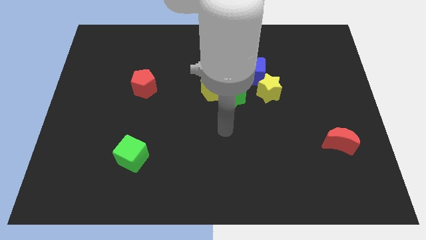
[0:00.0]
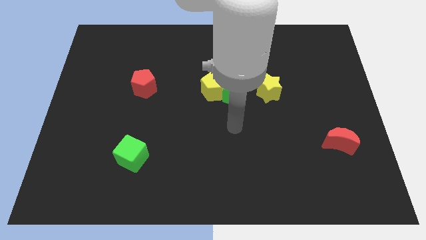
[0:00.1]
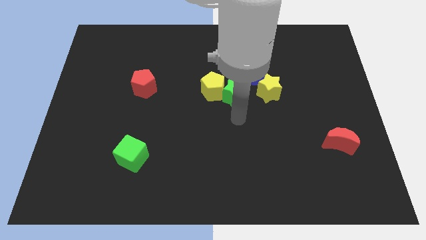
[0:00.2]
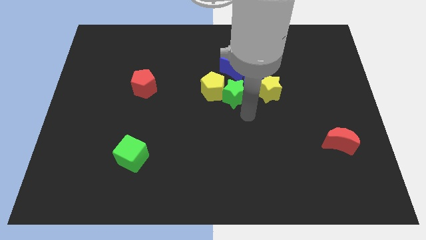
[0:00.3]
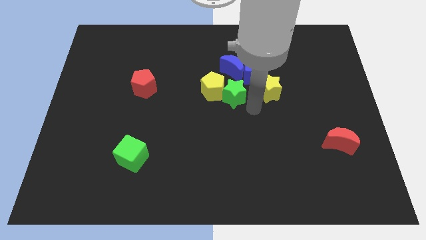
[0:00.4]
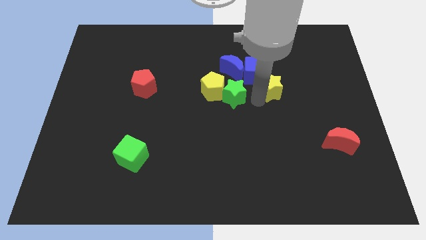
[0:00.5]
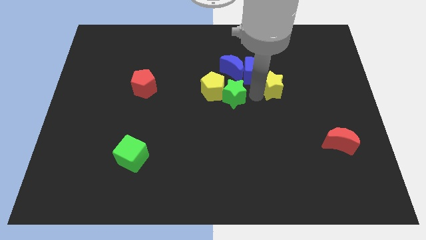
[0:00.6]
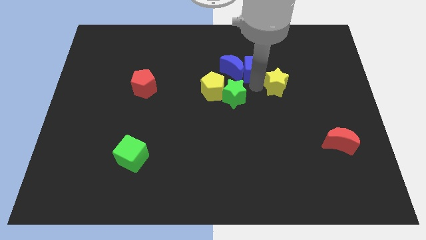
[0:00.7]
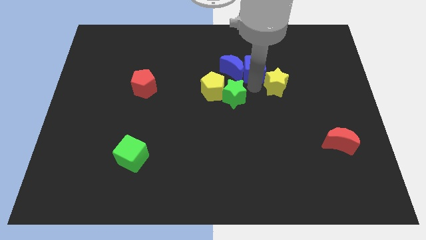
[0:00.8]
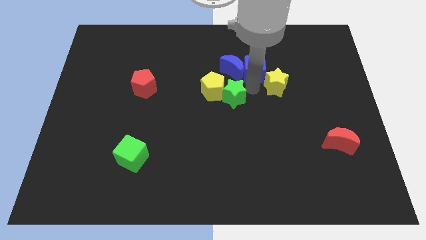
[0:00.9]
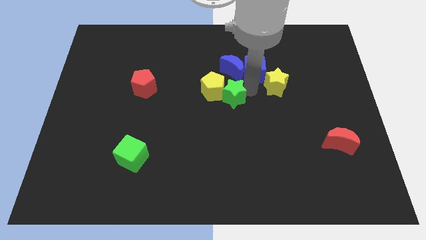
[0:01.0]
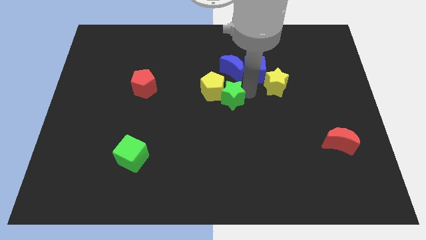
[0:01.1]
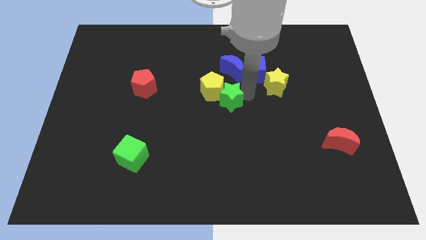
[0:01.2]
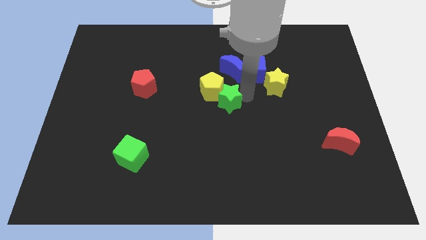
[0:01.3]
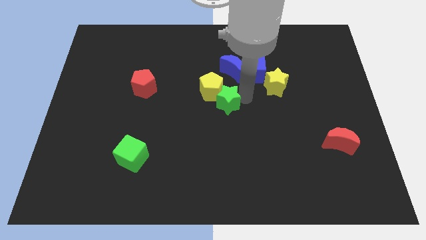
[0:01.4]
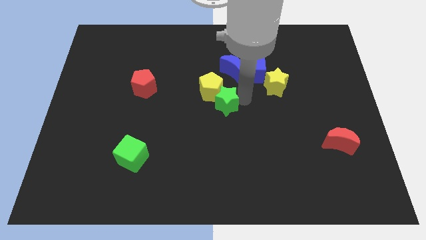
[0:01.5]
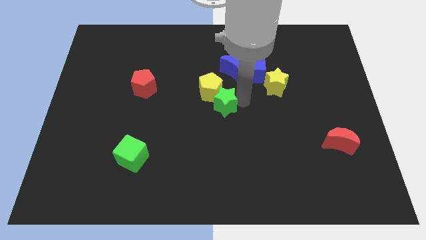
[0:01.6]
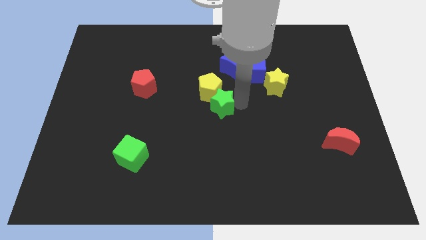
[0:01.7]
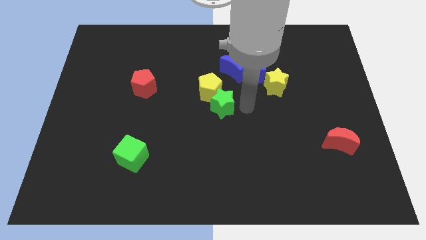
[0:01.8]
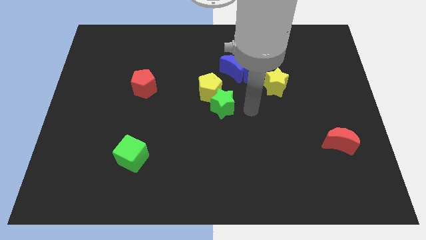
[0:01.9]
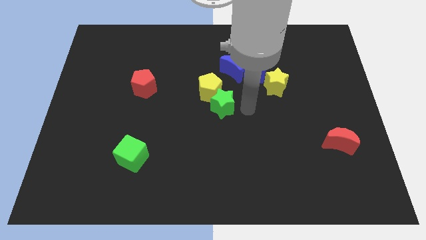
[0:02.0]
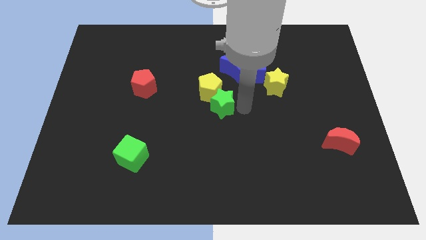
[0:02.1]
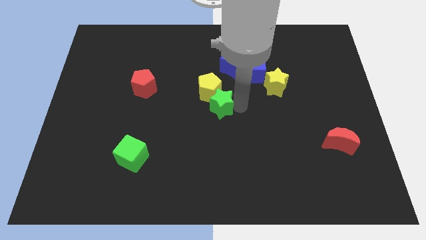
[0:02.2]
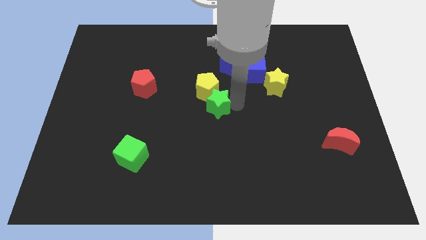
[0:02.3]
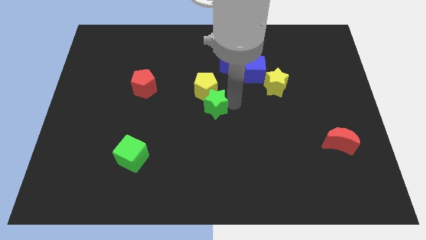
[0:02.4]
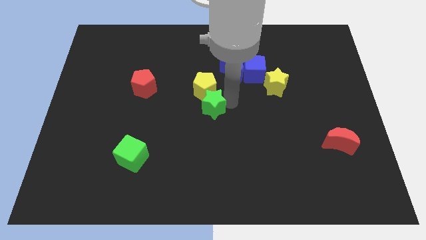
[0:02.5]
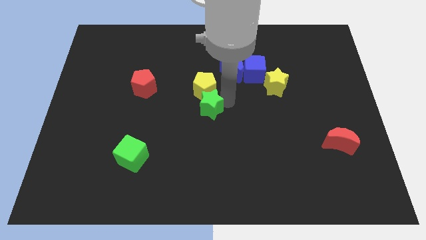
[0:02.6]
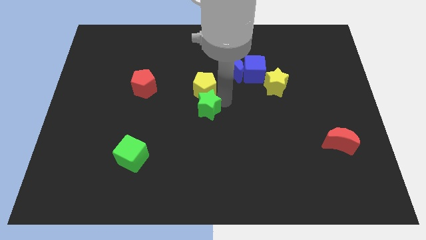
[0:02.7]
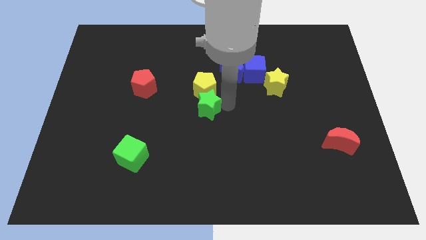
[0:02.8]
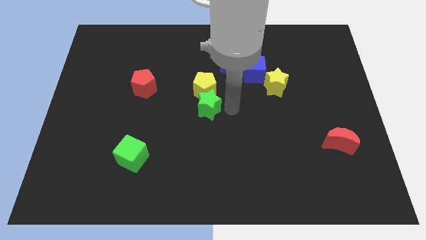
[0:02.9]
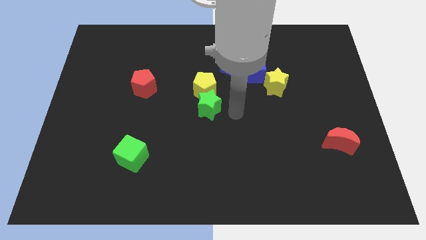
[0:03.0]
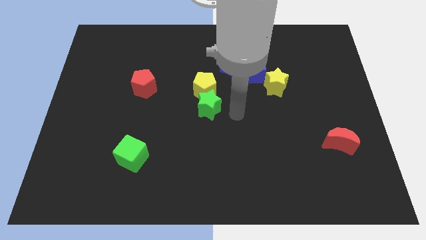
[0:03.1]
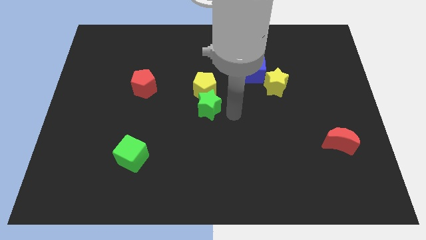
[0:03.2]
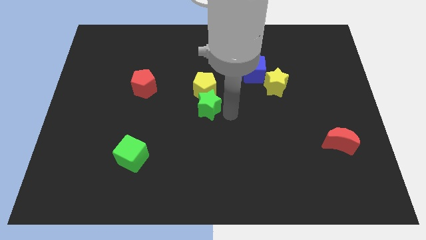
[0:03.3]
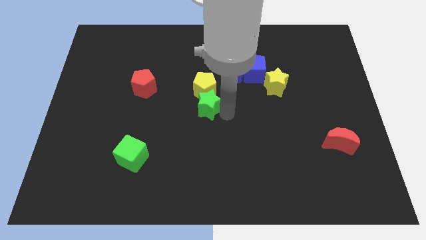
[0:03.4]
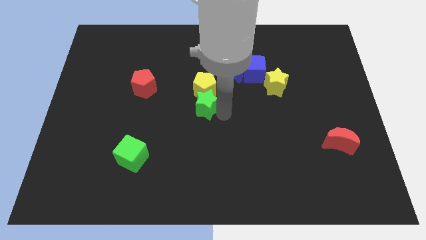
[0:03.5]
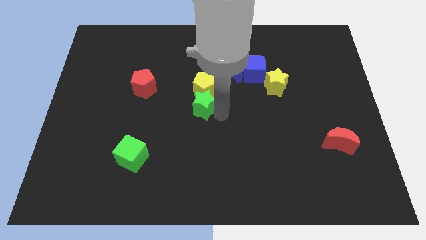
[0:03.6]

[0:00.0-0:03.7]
move the green star somewhat left

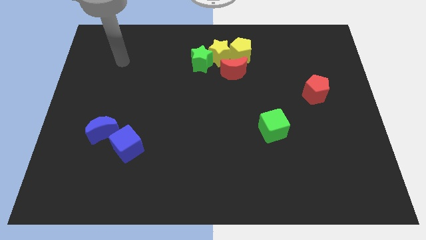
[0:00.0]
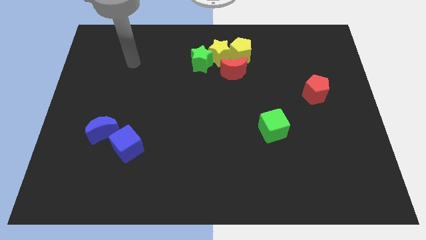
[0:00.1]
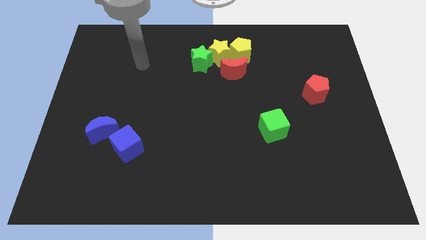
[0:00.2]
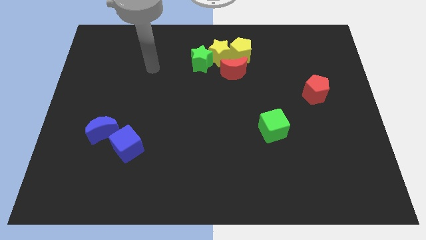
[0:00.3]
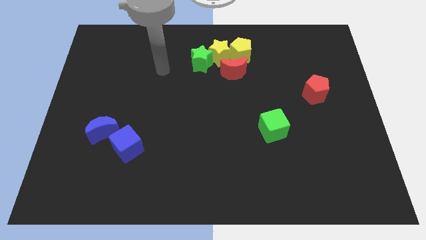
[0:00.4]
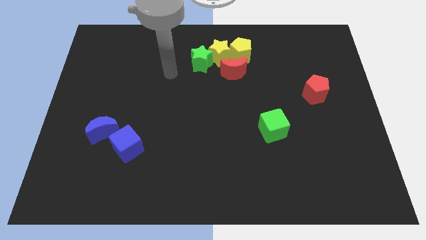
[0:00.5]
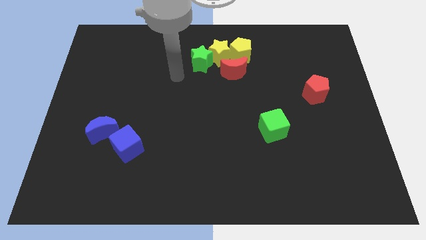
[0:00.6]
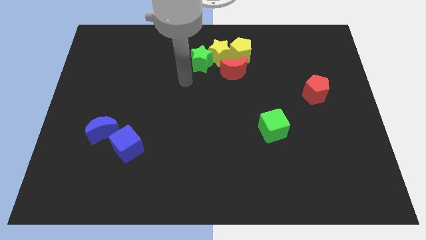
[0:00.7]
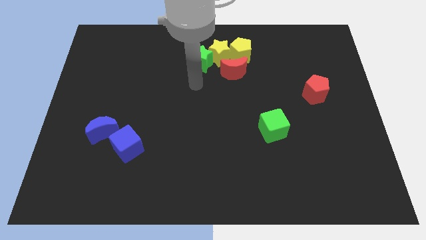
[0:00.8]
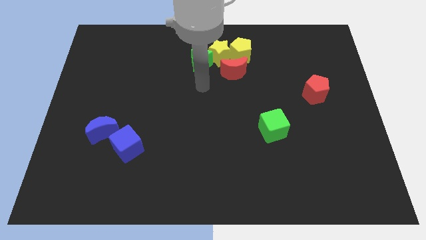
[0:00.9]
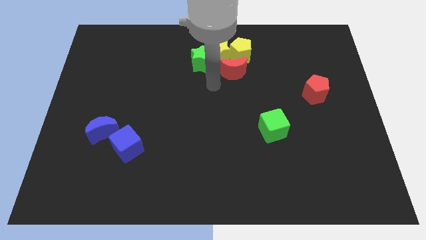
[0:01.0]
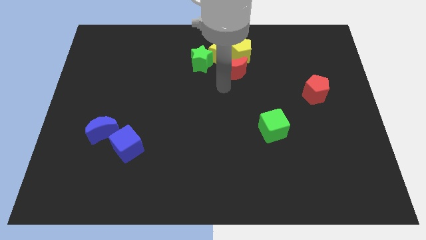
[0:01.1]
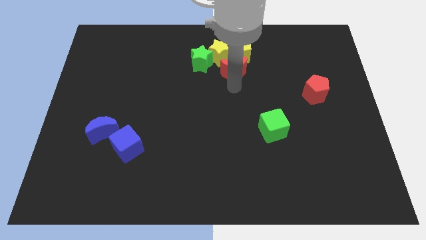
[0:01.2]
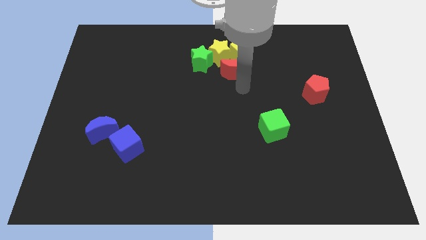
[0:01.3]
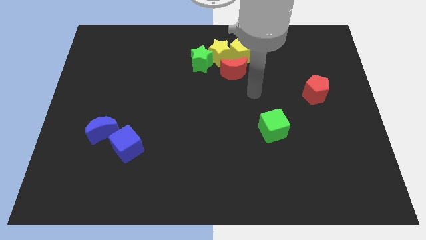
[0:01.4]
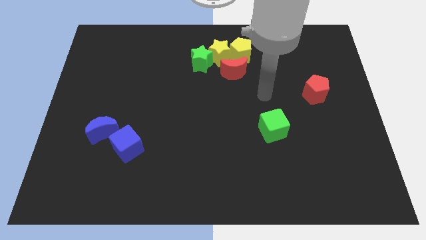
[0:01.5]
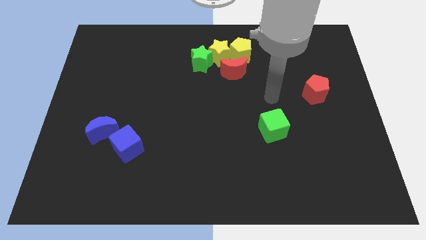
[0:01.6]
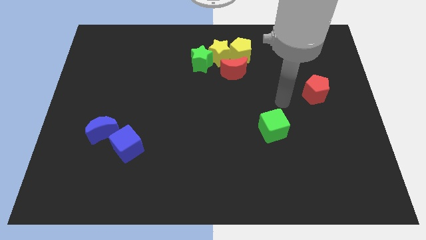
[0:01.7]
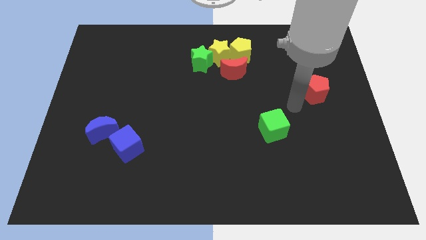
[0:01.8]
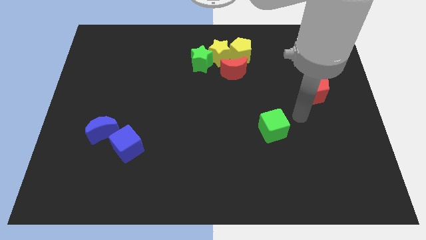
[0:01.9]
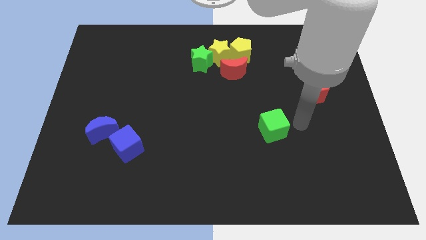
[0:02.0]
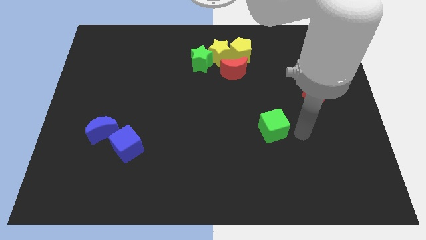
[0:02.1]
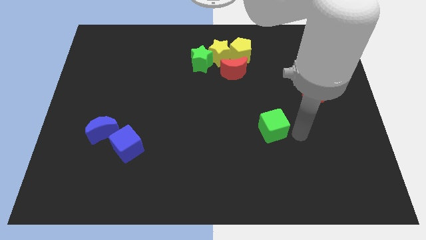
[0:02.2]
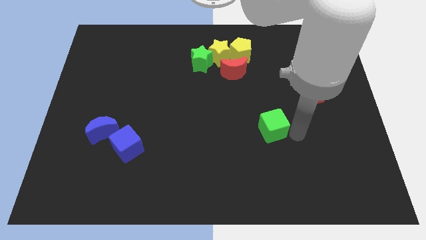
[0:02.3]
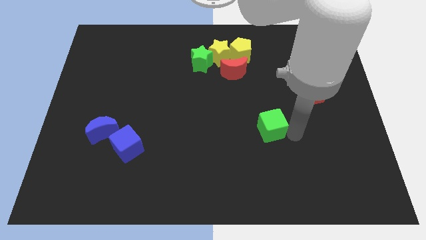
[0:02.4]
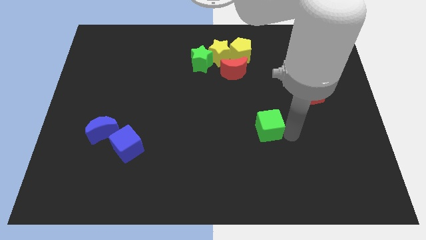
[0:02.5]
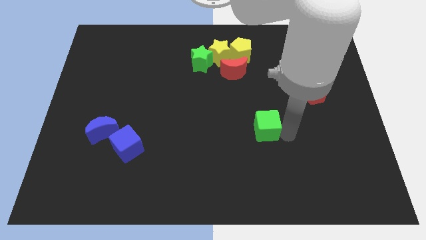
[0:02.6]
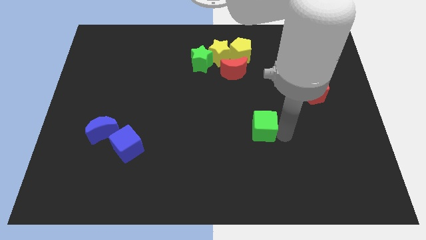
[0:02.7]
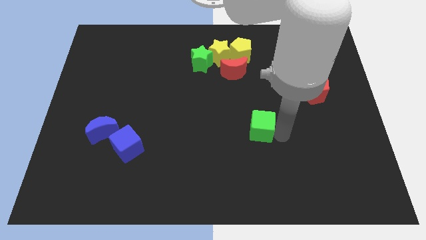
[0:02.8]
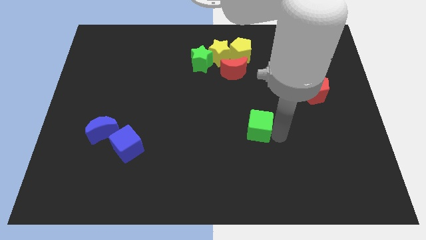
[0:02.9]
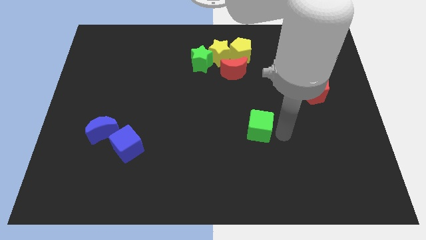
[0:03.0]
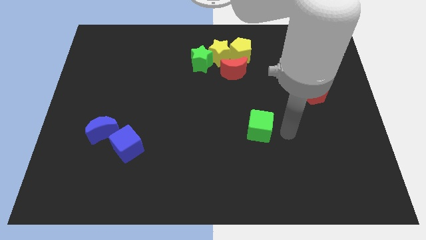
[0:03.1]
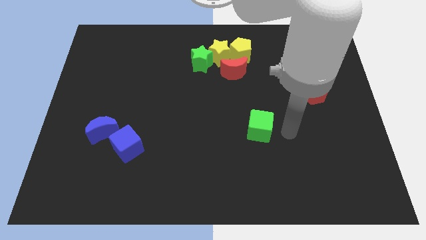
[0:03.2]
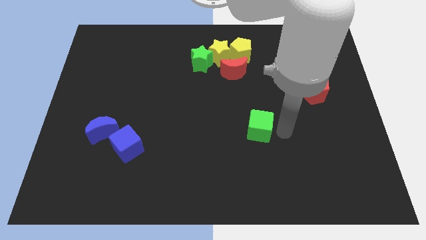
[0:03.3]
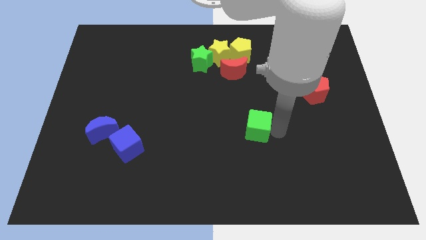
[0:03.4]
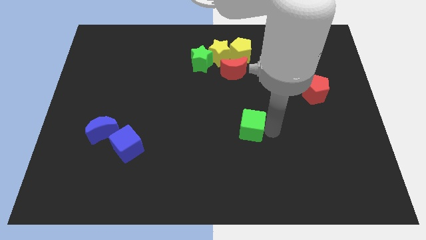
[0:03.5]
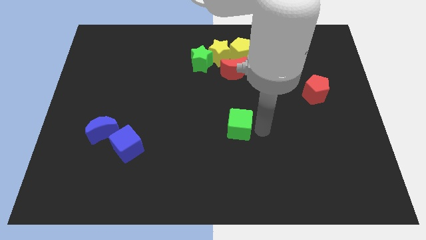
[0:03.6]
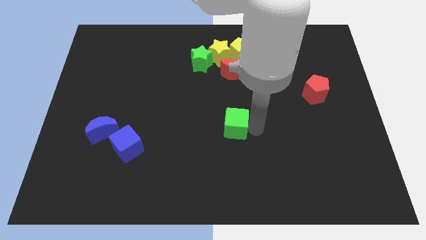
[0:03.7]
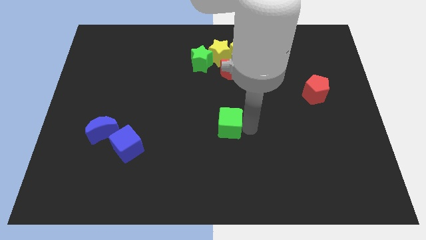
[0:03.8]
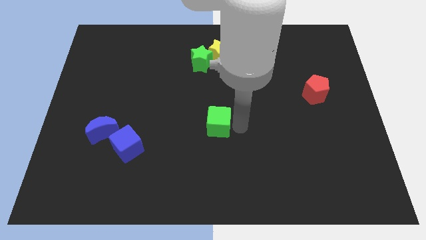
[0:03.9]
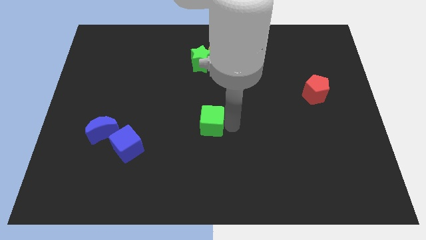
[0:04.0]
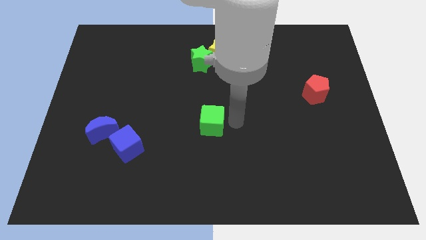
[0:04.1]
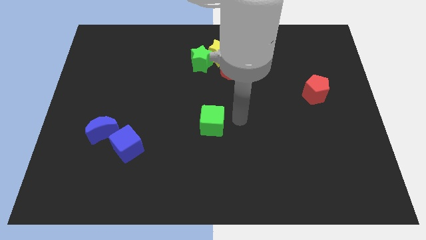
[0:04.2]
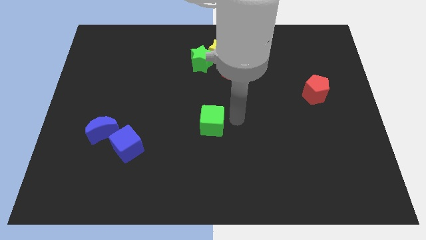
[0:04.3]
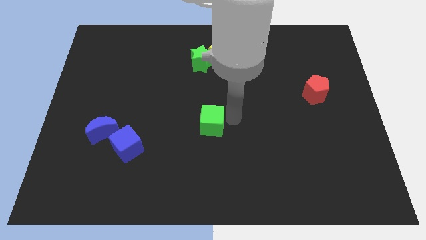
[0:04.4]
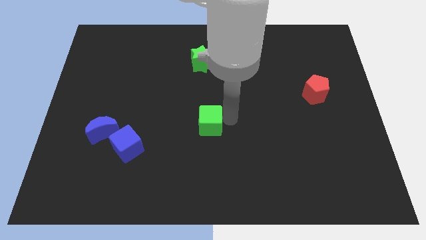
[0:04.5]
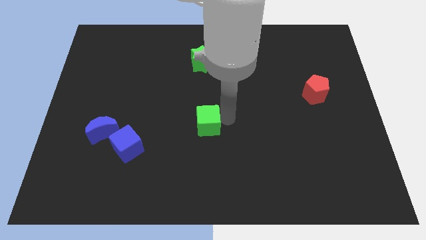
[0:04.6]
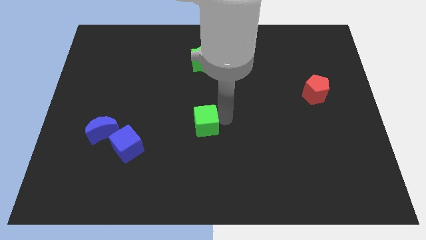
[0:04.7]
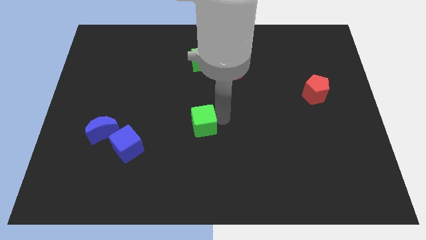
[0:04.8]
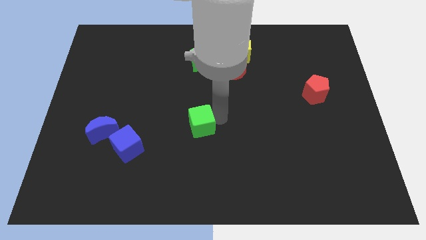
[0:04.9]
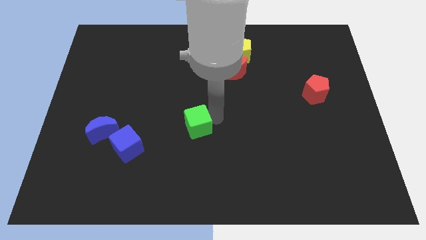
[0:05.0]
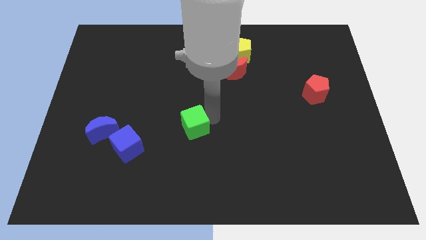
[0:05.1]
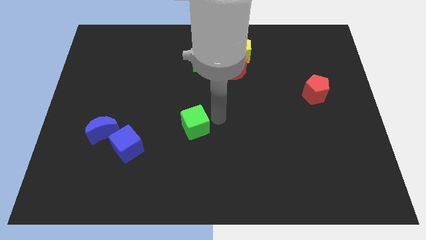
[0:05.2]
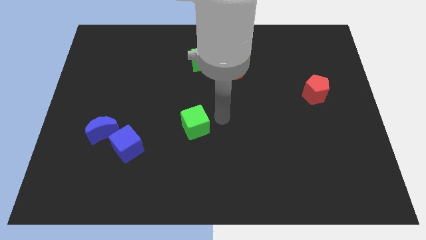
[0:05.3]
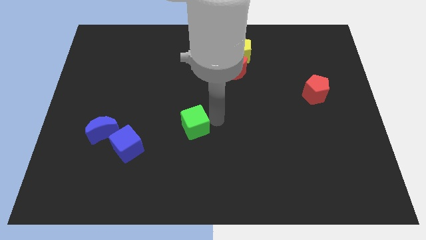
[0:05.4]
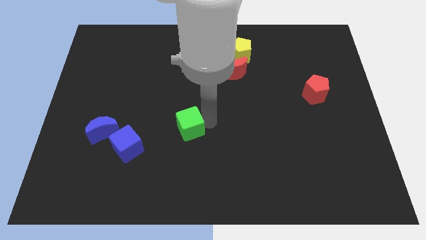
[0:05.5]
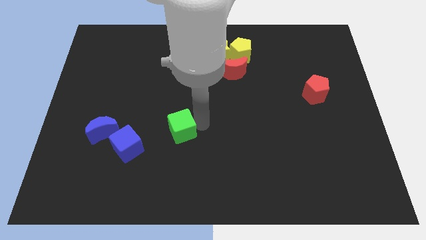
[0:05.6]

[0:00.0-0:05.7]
push the green cube left
